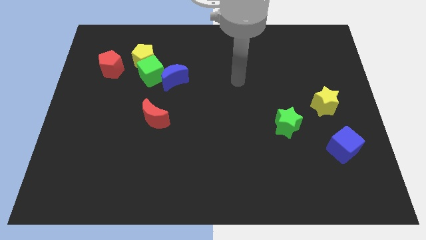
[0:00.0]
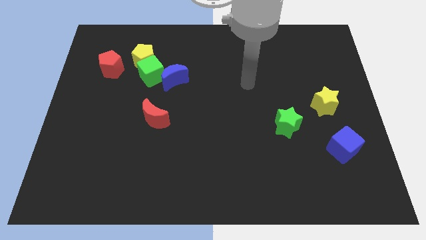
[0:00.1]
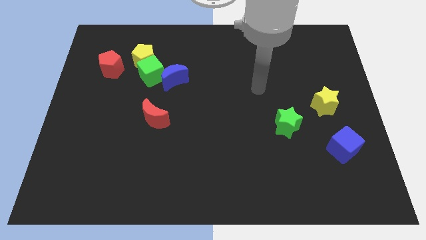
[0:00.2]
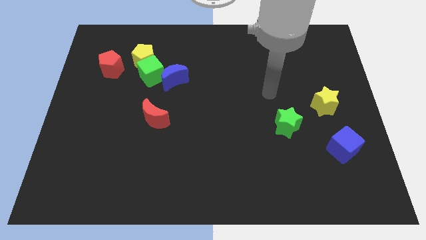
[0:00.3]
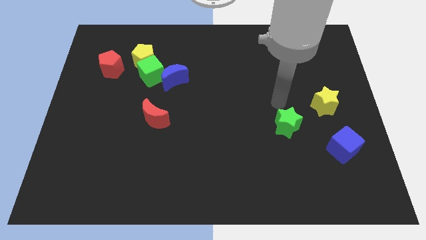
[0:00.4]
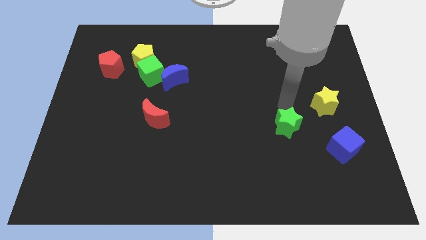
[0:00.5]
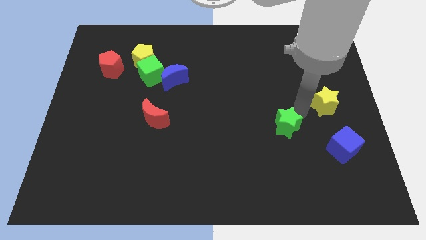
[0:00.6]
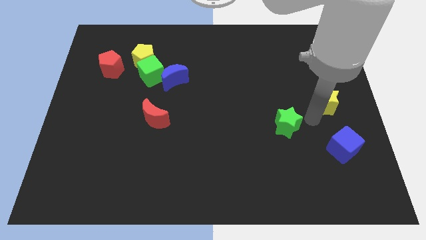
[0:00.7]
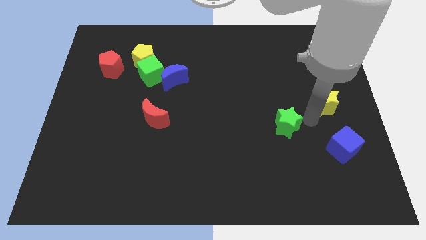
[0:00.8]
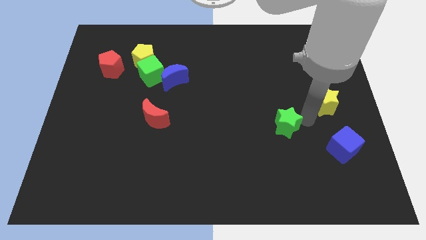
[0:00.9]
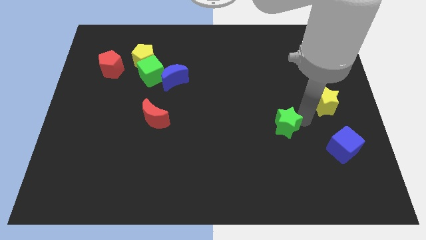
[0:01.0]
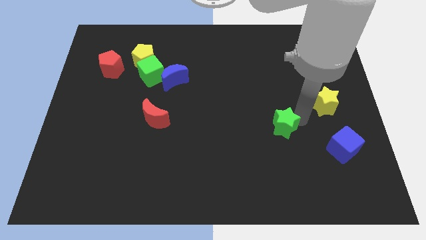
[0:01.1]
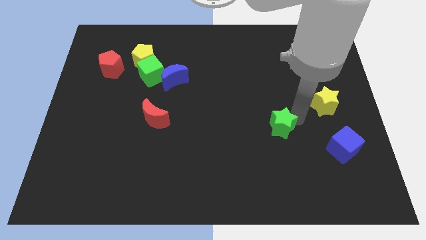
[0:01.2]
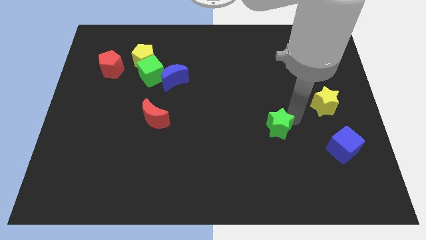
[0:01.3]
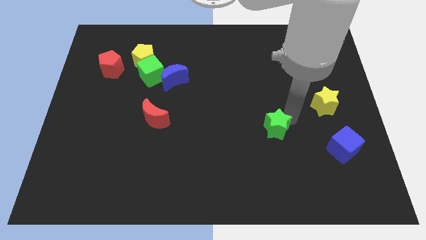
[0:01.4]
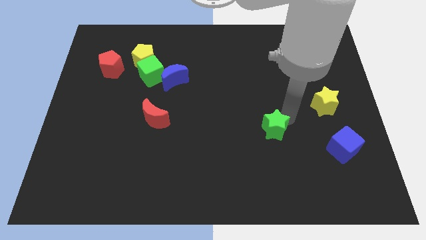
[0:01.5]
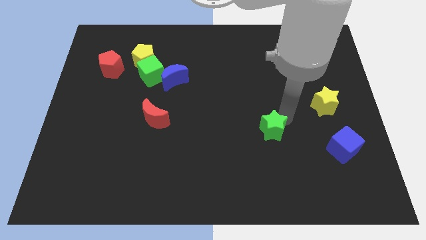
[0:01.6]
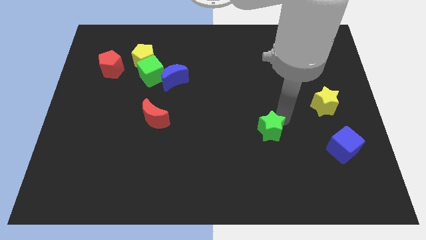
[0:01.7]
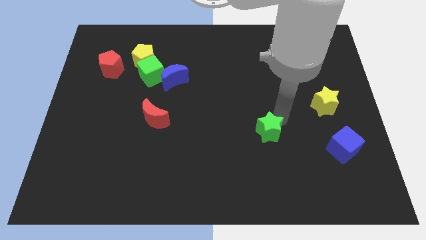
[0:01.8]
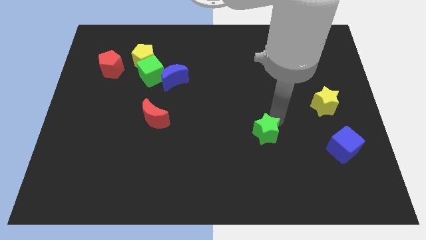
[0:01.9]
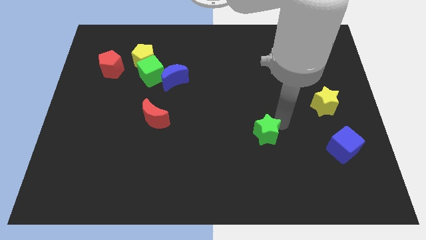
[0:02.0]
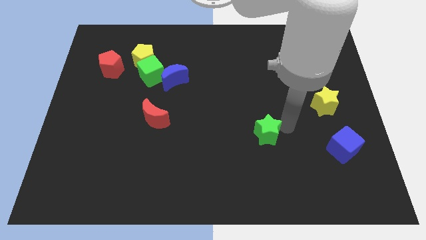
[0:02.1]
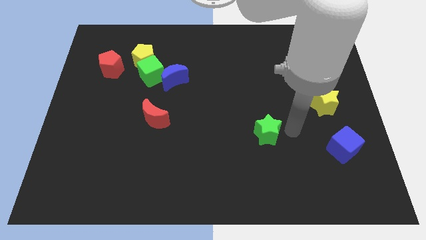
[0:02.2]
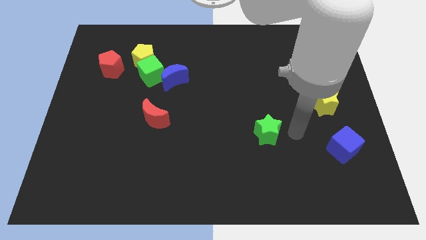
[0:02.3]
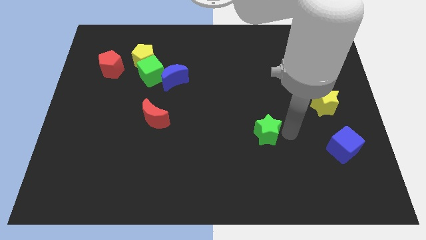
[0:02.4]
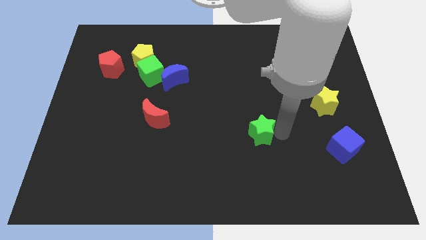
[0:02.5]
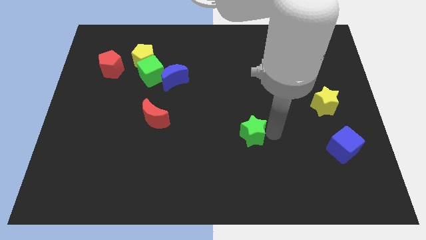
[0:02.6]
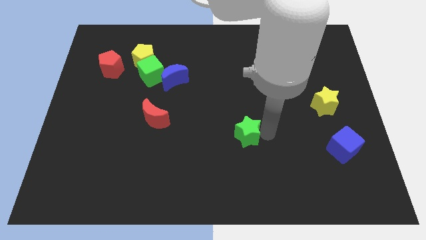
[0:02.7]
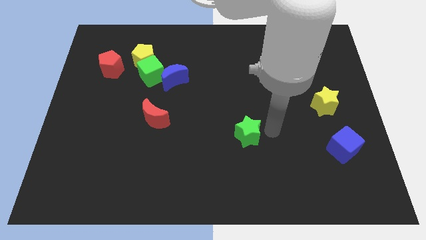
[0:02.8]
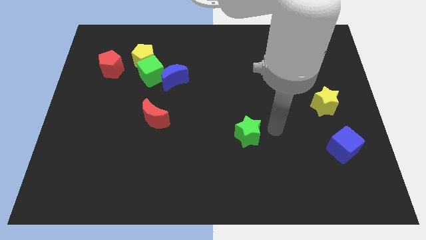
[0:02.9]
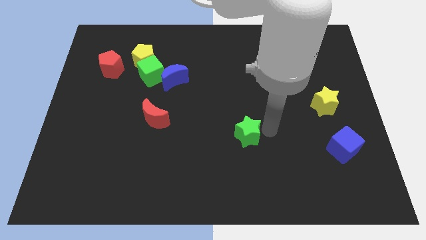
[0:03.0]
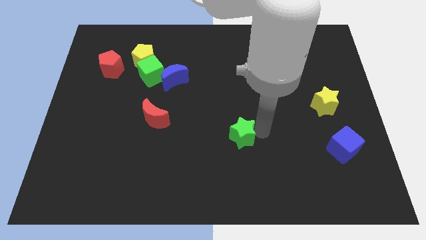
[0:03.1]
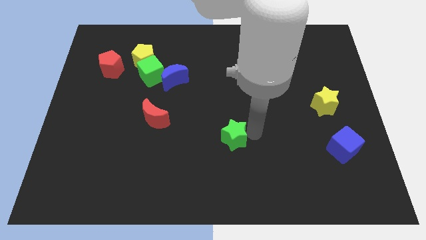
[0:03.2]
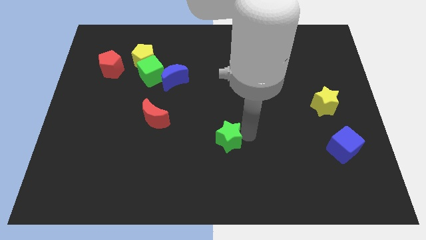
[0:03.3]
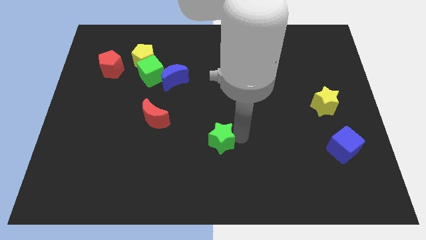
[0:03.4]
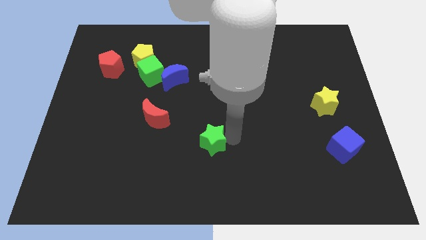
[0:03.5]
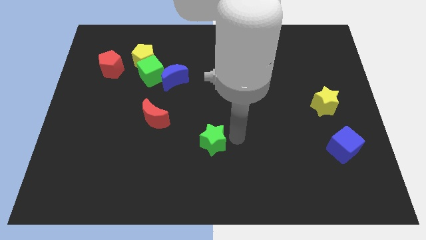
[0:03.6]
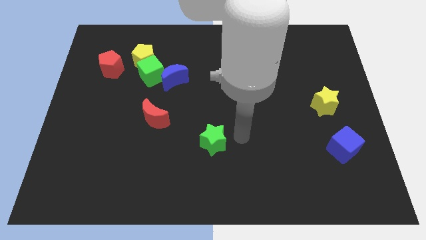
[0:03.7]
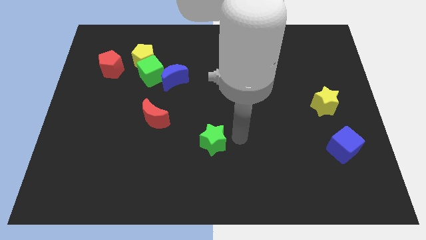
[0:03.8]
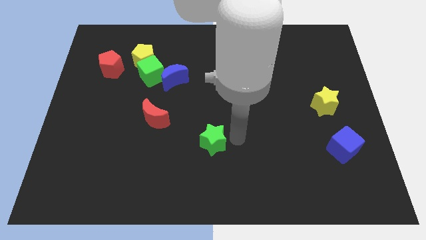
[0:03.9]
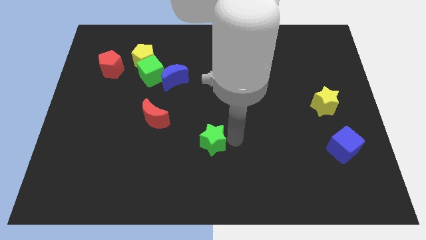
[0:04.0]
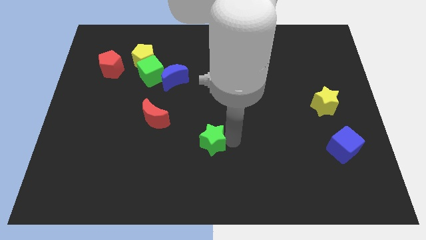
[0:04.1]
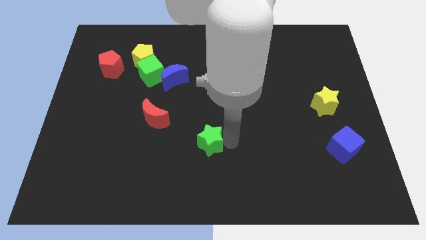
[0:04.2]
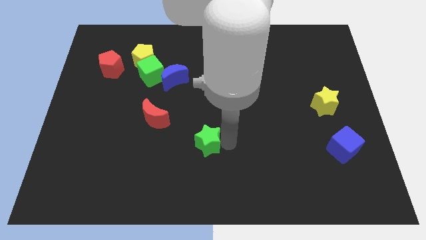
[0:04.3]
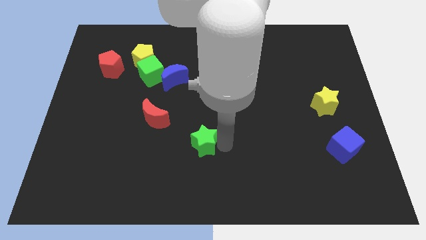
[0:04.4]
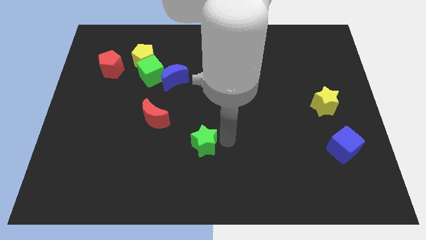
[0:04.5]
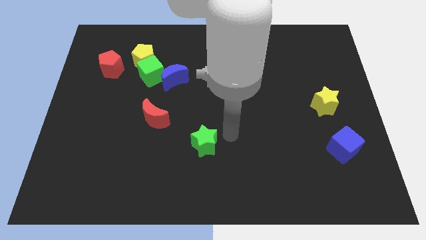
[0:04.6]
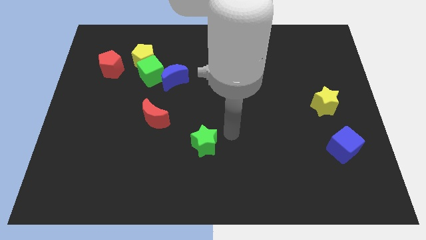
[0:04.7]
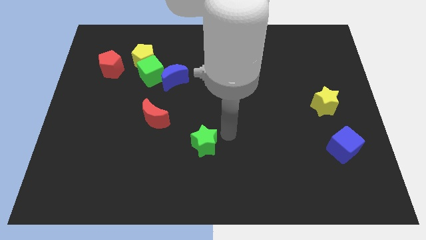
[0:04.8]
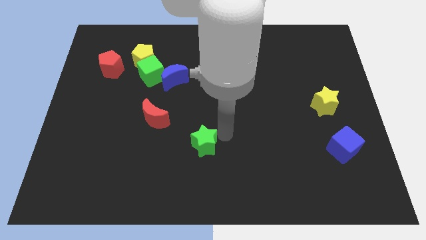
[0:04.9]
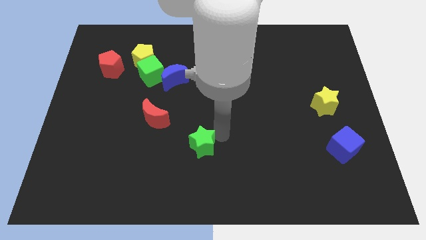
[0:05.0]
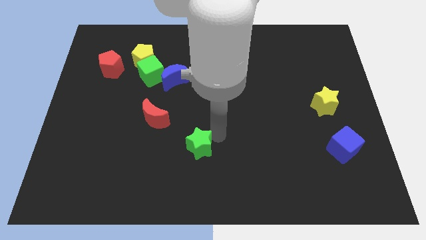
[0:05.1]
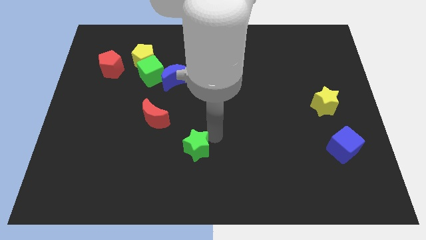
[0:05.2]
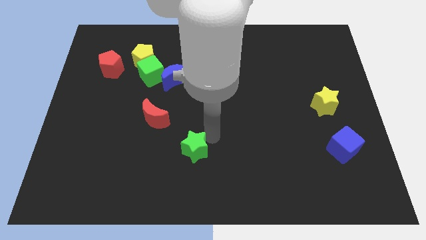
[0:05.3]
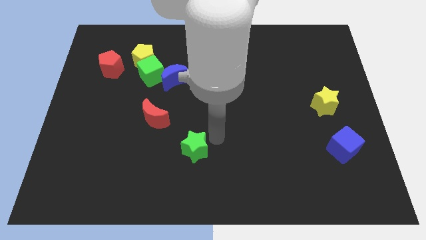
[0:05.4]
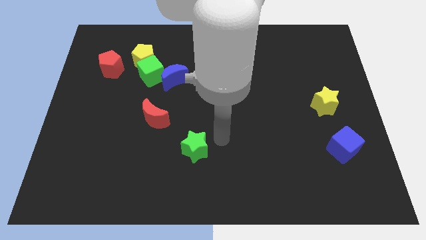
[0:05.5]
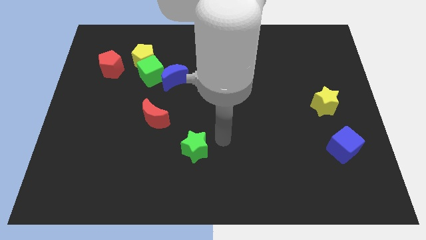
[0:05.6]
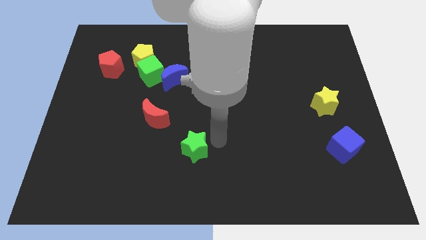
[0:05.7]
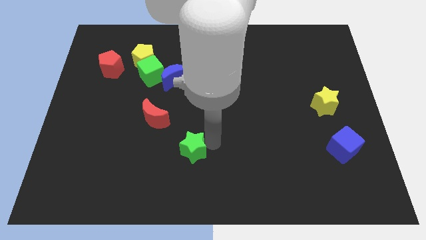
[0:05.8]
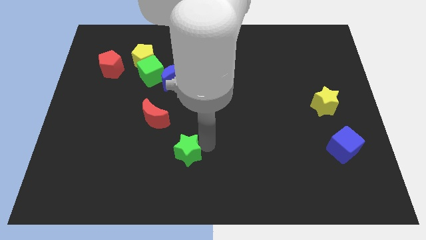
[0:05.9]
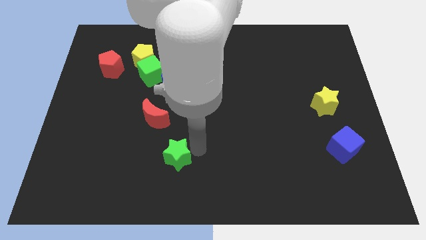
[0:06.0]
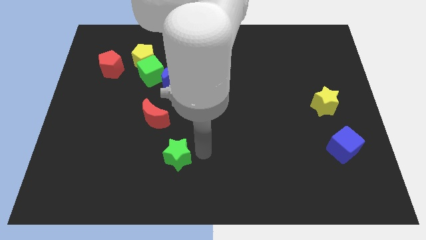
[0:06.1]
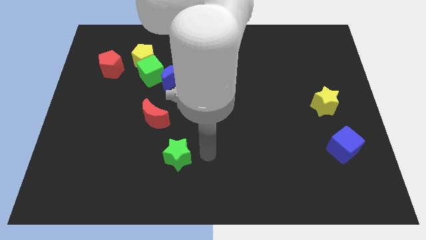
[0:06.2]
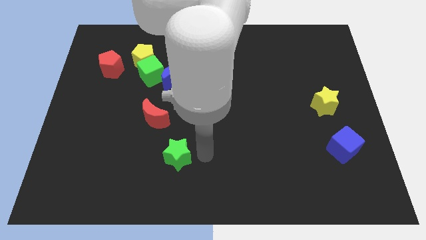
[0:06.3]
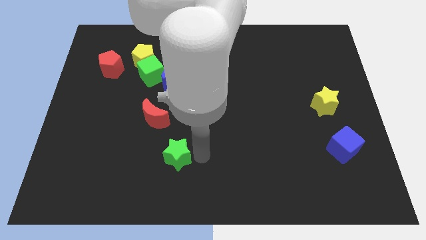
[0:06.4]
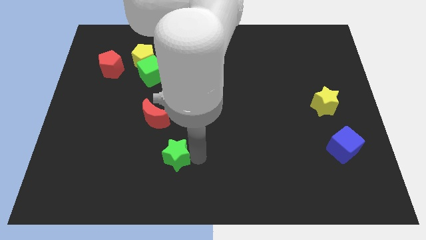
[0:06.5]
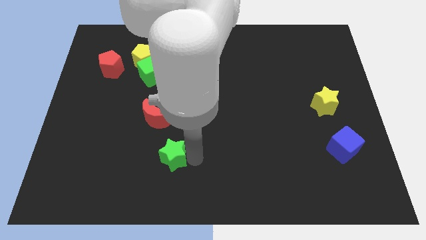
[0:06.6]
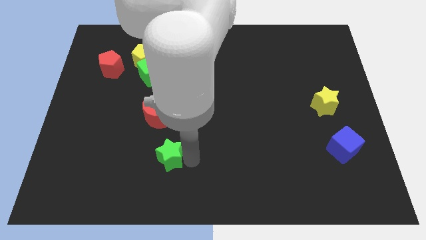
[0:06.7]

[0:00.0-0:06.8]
push the green star to the bottom of the red moon
